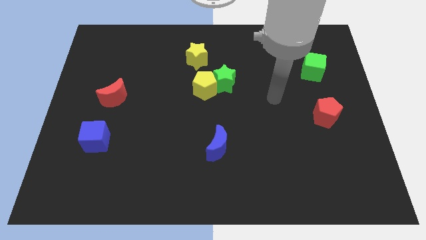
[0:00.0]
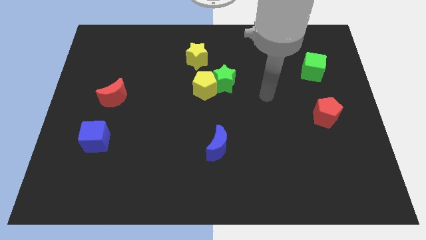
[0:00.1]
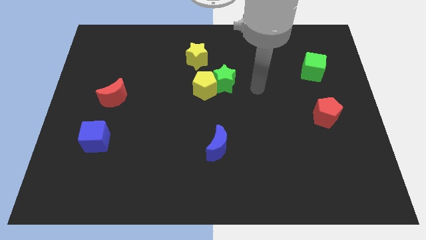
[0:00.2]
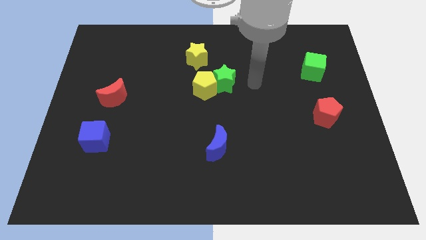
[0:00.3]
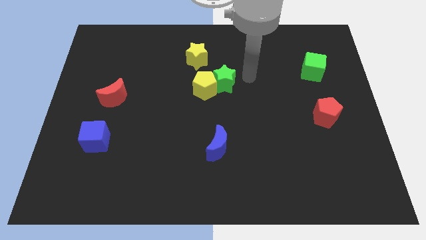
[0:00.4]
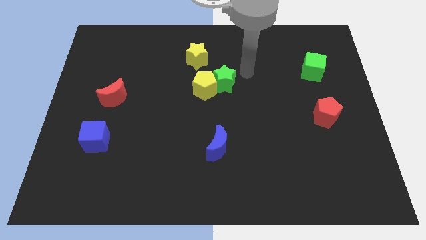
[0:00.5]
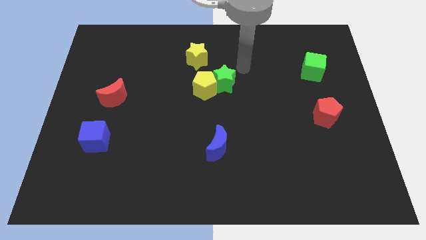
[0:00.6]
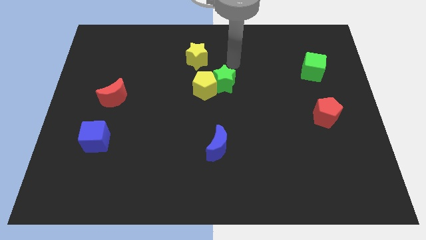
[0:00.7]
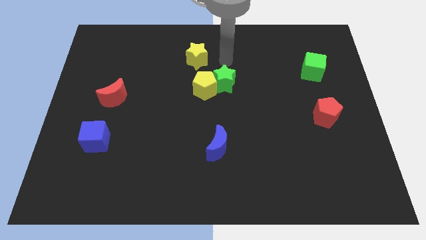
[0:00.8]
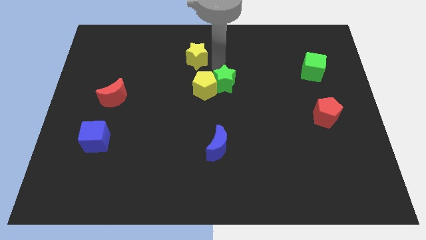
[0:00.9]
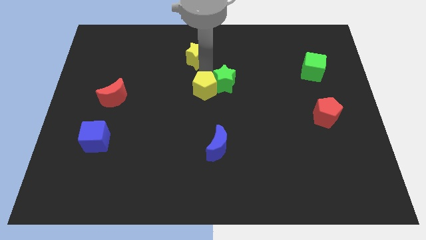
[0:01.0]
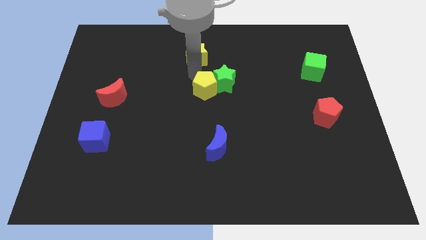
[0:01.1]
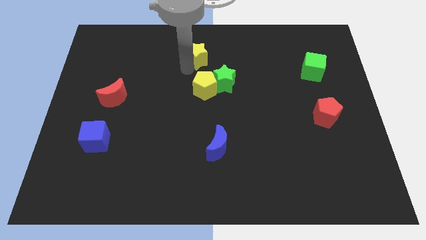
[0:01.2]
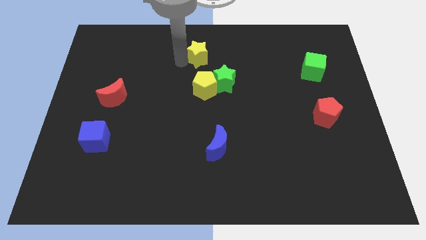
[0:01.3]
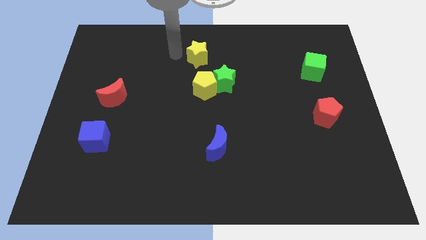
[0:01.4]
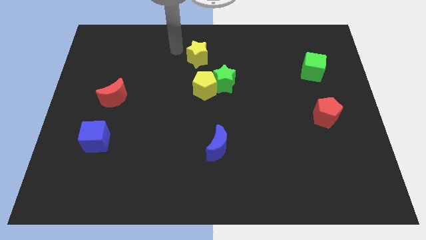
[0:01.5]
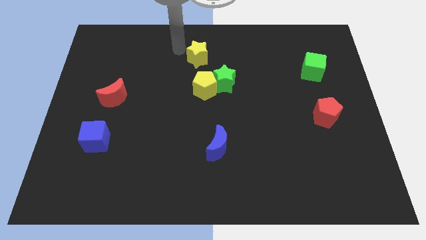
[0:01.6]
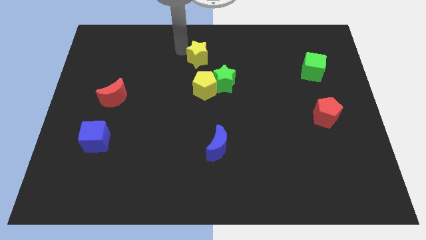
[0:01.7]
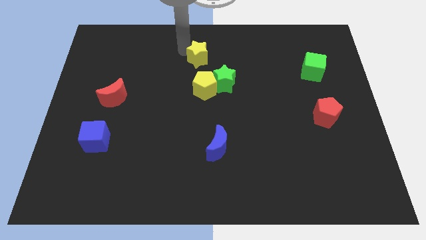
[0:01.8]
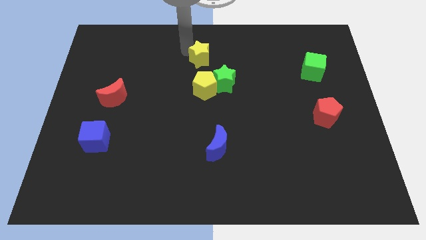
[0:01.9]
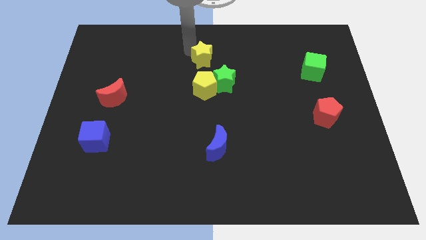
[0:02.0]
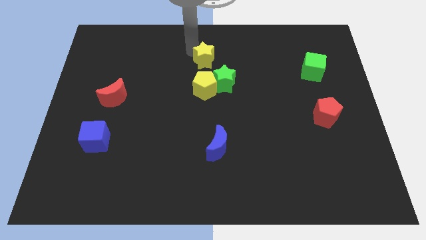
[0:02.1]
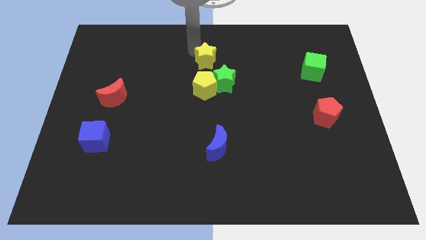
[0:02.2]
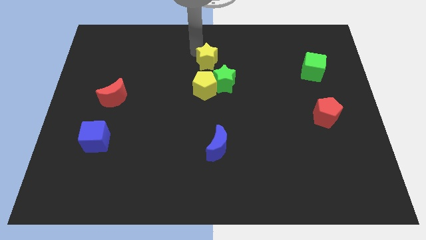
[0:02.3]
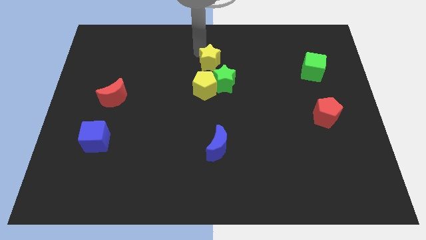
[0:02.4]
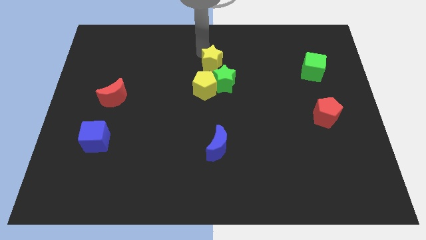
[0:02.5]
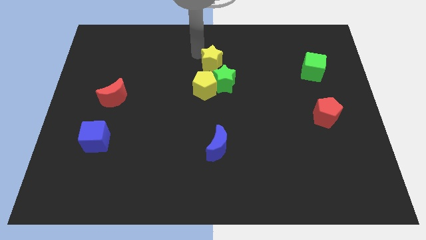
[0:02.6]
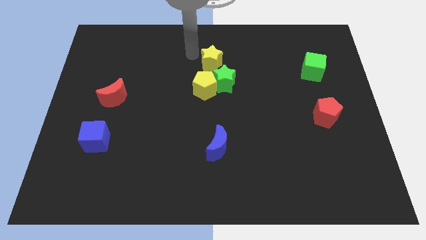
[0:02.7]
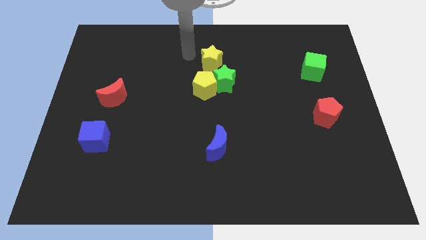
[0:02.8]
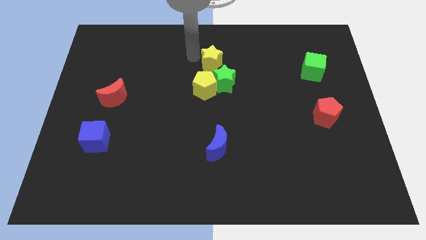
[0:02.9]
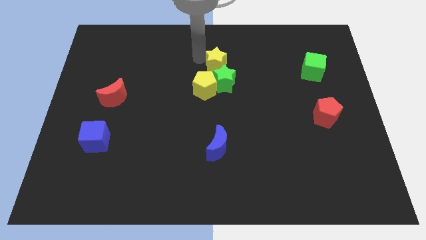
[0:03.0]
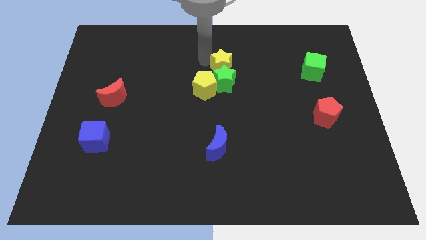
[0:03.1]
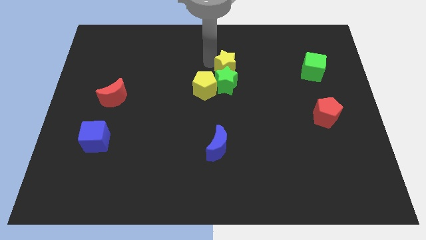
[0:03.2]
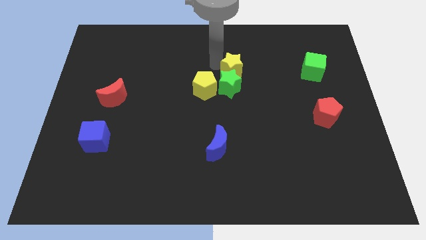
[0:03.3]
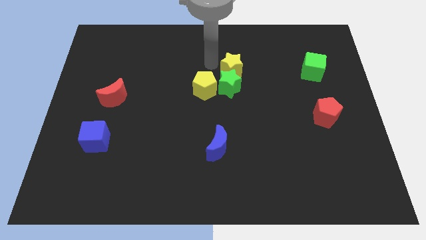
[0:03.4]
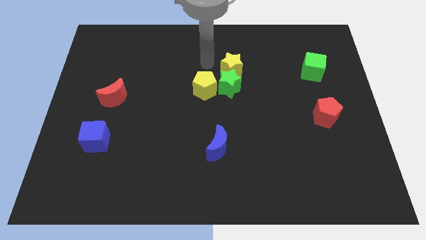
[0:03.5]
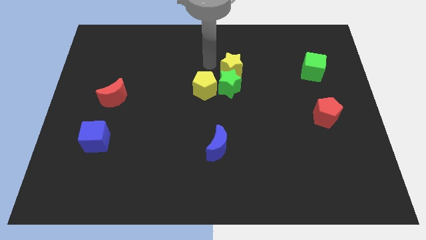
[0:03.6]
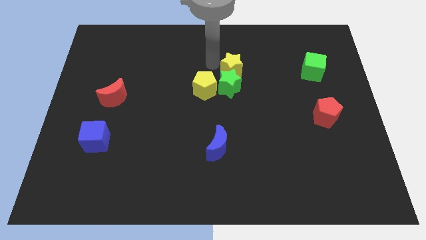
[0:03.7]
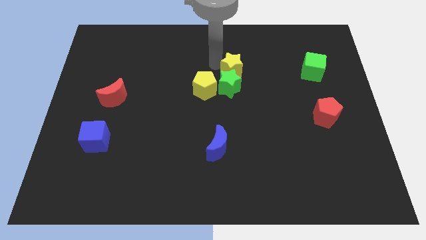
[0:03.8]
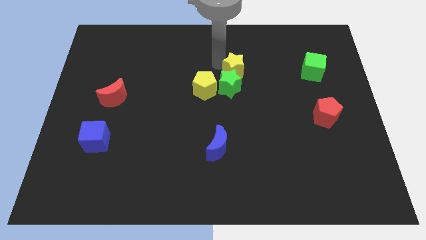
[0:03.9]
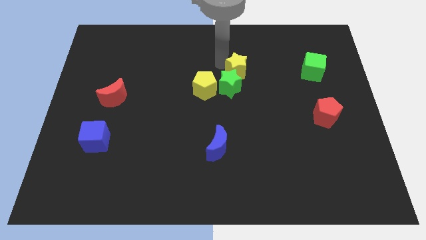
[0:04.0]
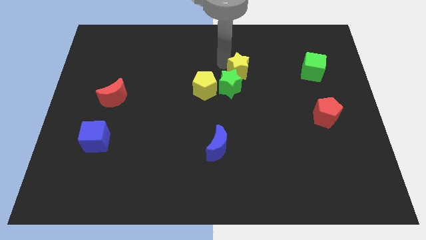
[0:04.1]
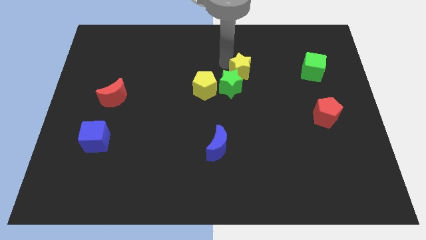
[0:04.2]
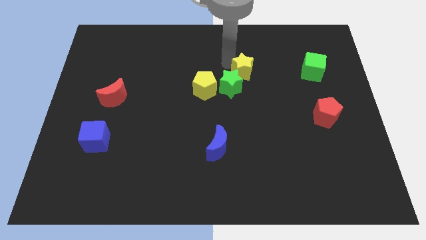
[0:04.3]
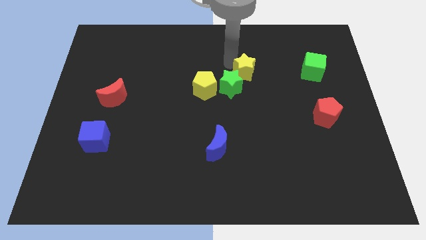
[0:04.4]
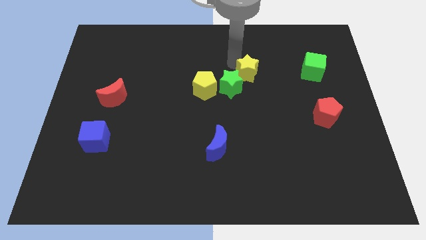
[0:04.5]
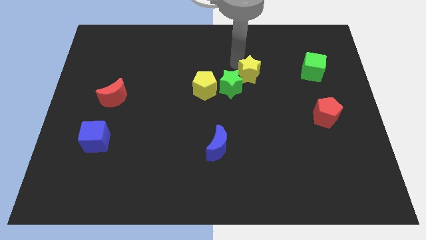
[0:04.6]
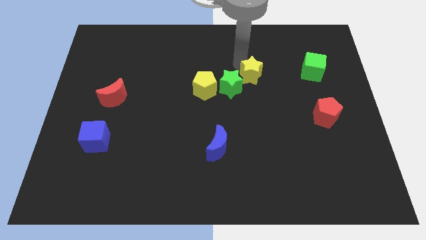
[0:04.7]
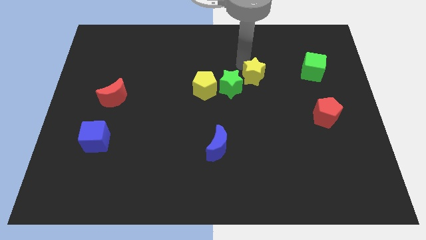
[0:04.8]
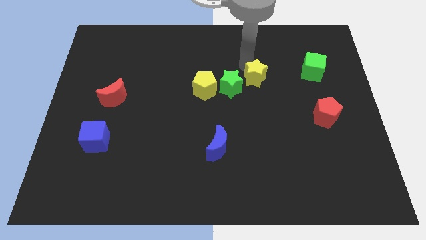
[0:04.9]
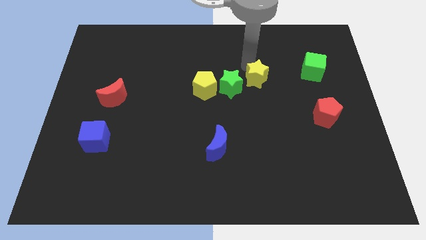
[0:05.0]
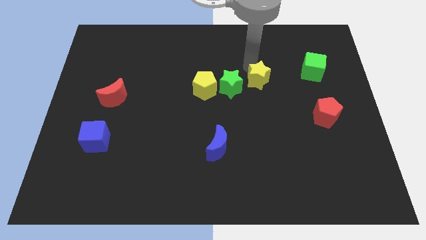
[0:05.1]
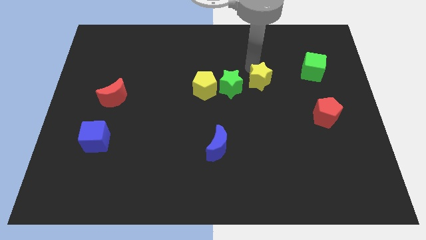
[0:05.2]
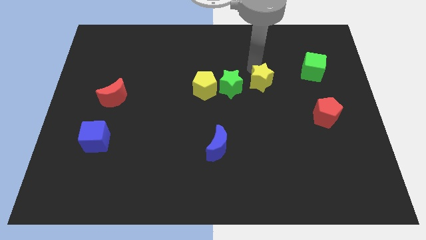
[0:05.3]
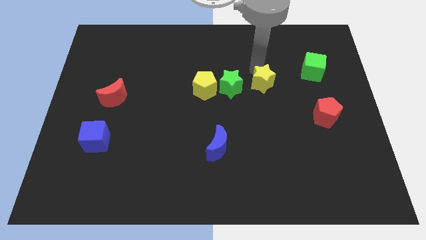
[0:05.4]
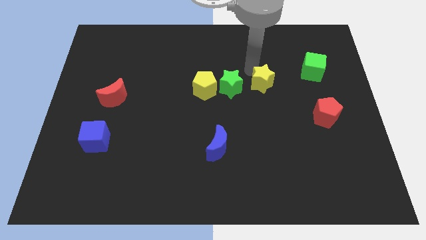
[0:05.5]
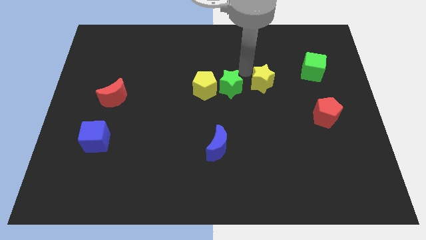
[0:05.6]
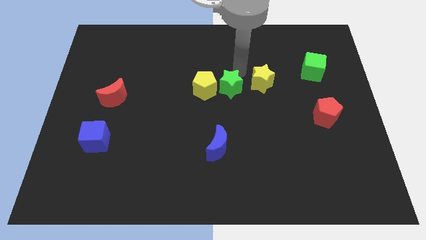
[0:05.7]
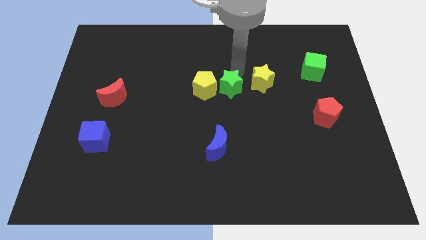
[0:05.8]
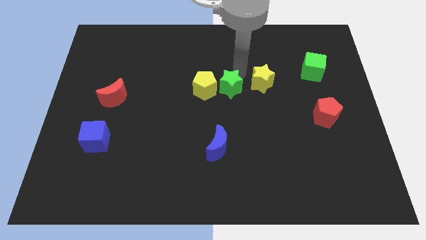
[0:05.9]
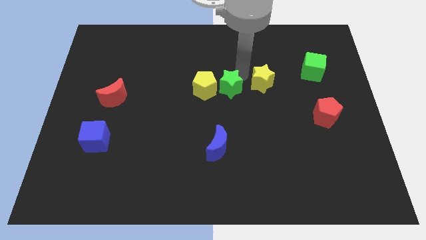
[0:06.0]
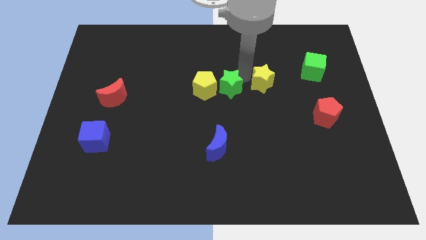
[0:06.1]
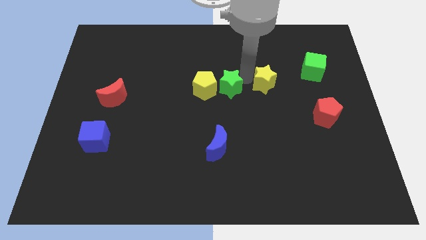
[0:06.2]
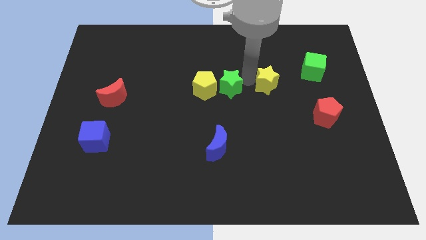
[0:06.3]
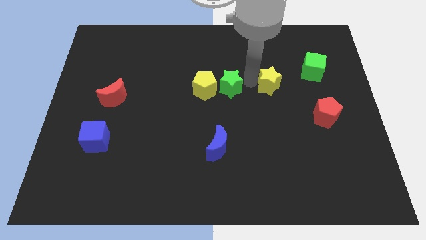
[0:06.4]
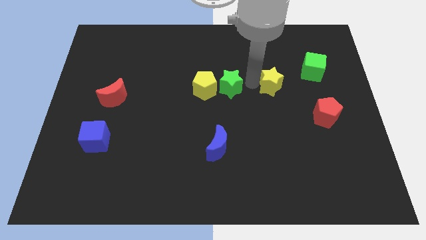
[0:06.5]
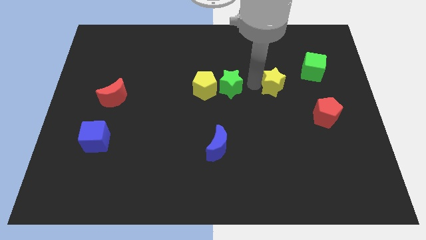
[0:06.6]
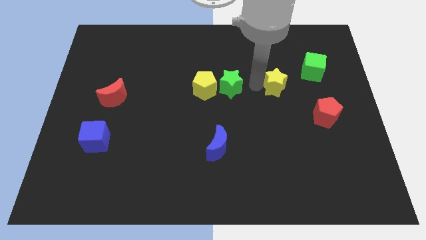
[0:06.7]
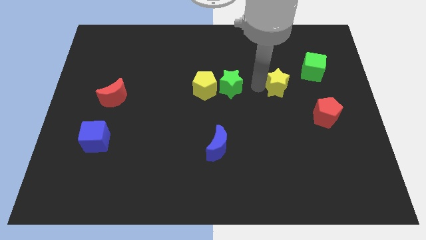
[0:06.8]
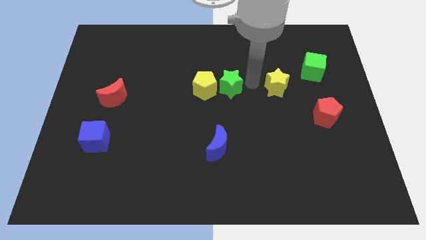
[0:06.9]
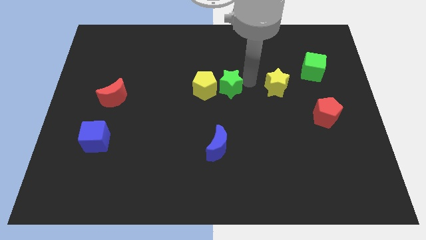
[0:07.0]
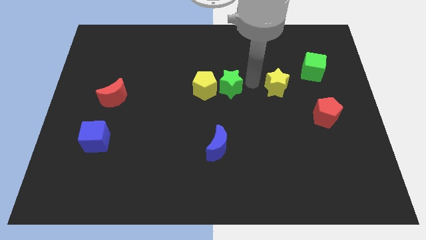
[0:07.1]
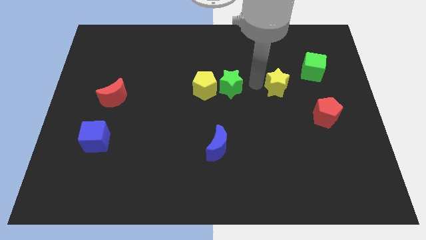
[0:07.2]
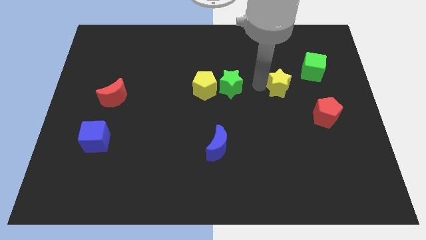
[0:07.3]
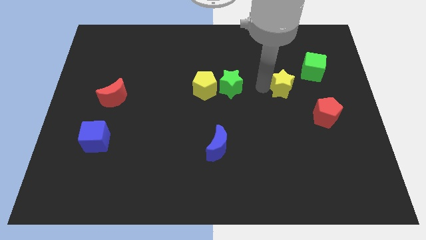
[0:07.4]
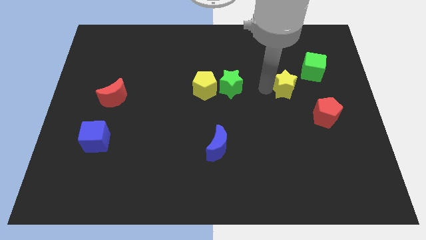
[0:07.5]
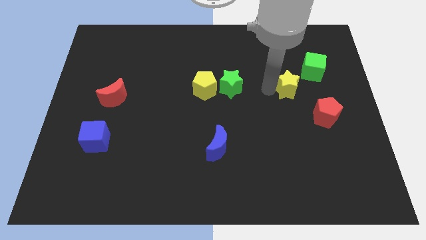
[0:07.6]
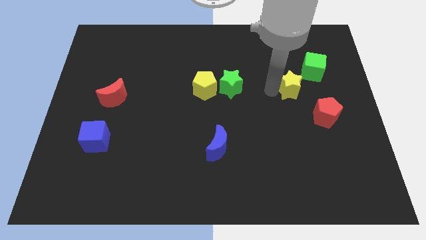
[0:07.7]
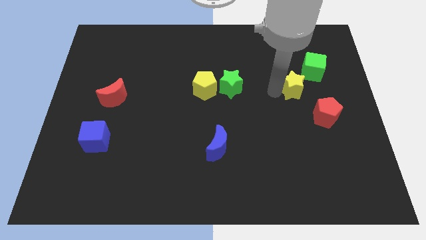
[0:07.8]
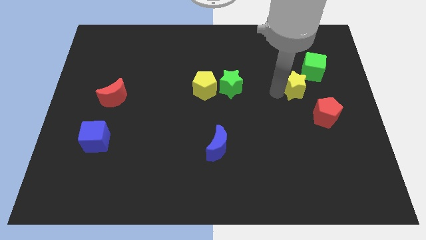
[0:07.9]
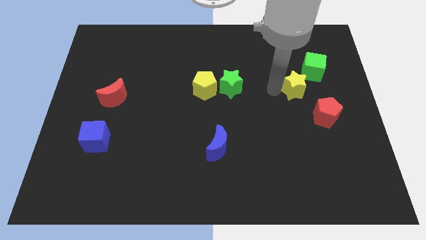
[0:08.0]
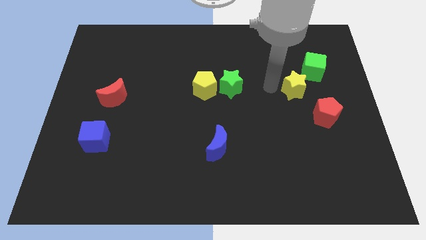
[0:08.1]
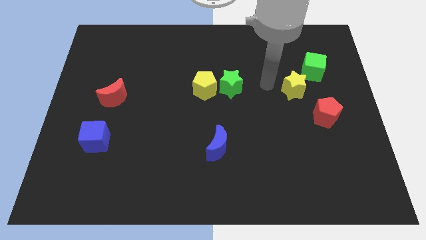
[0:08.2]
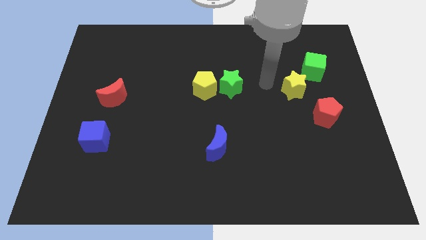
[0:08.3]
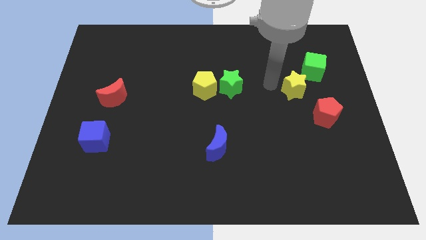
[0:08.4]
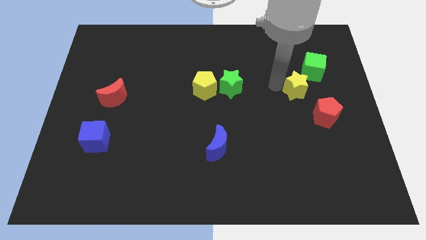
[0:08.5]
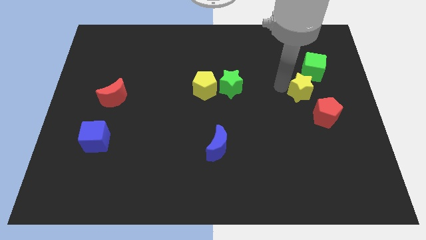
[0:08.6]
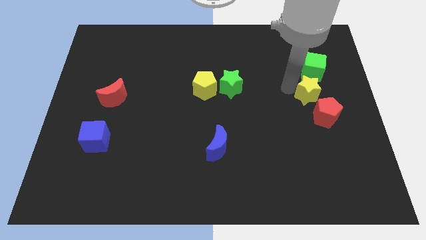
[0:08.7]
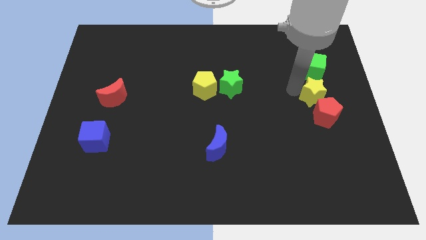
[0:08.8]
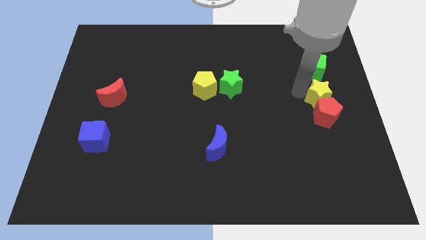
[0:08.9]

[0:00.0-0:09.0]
push the yellow star to the center right
